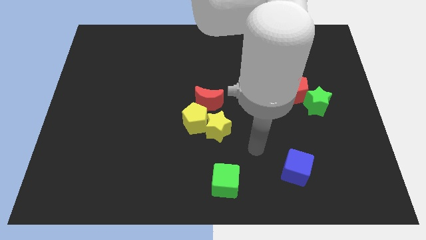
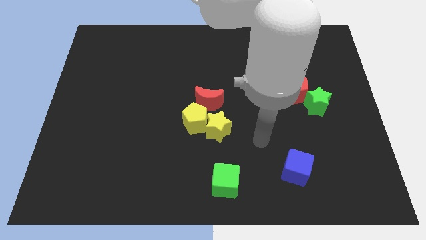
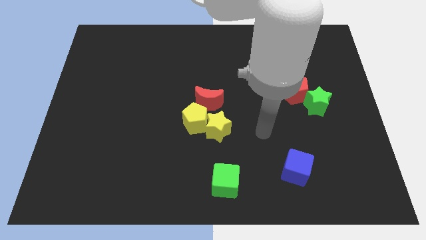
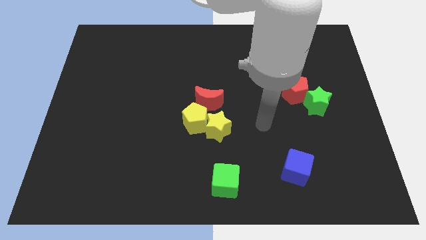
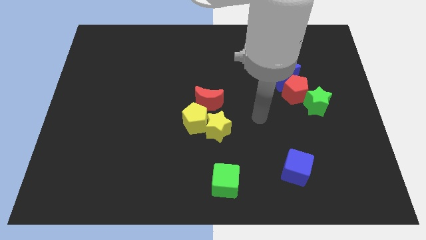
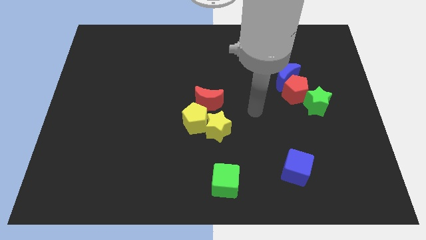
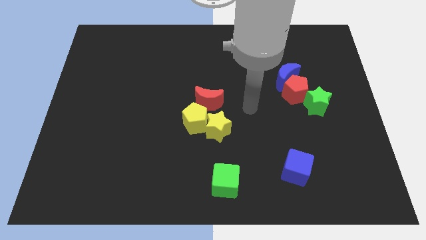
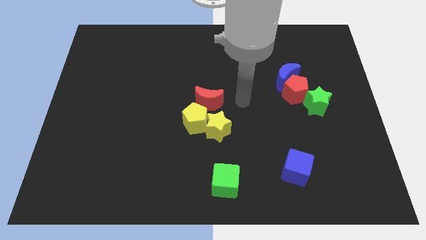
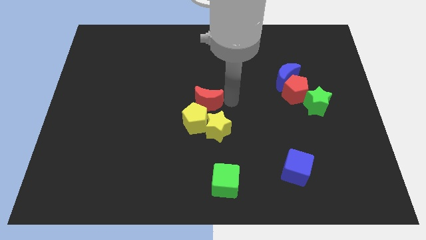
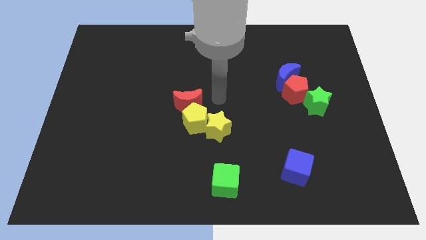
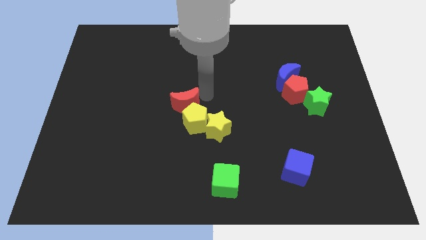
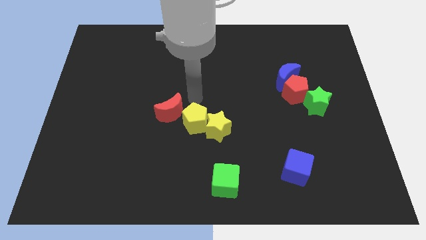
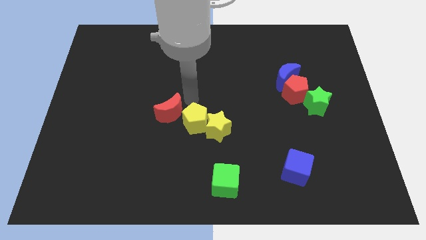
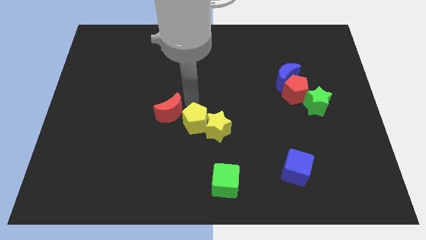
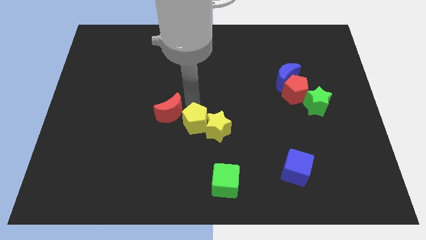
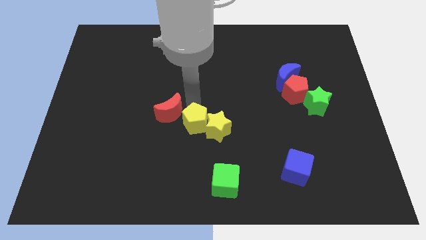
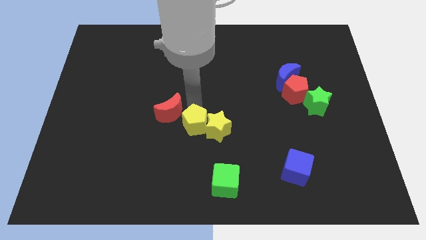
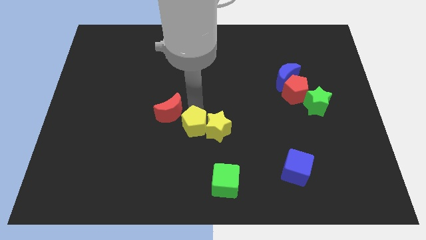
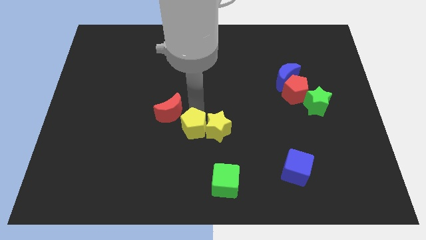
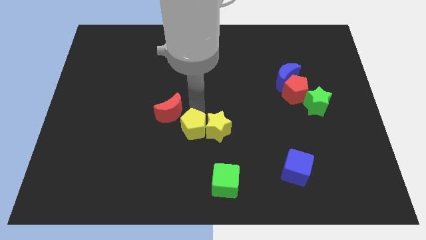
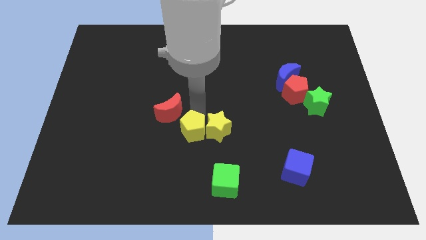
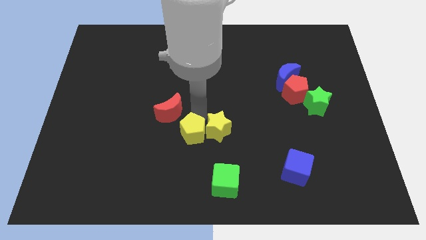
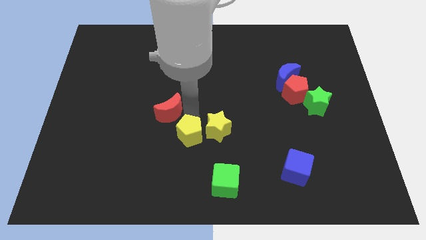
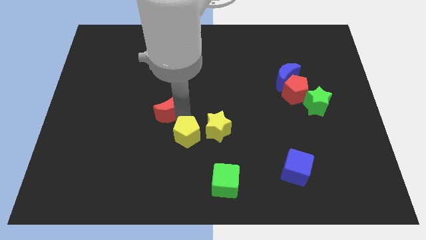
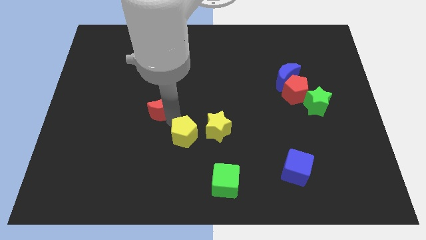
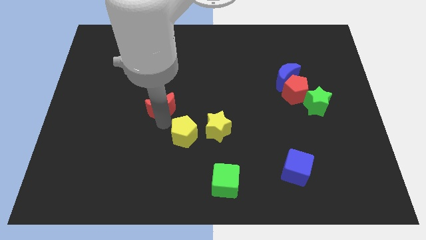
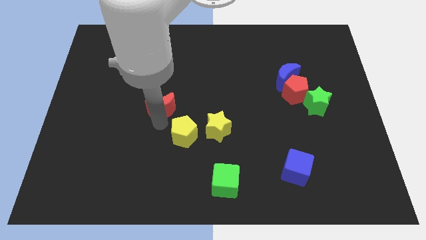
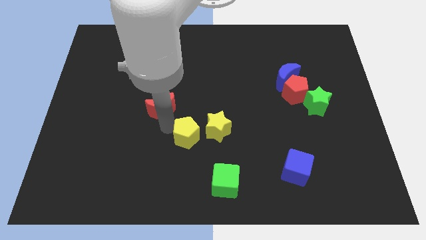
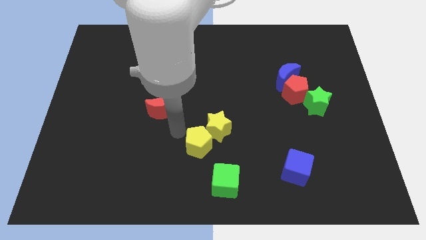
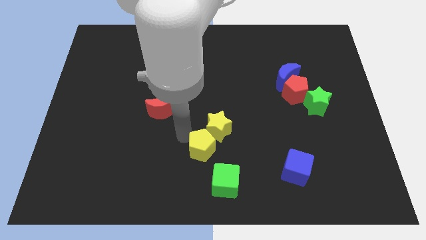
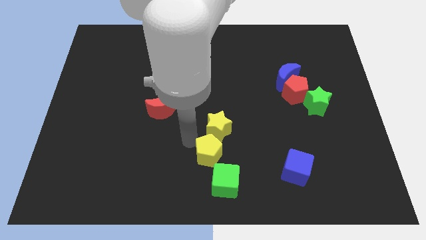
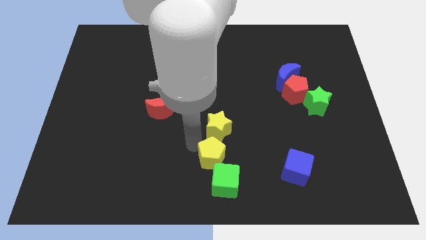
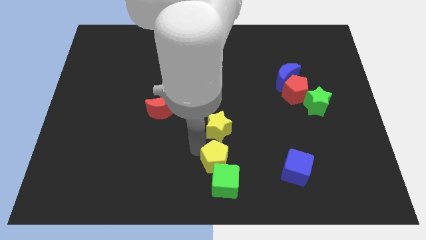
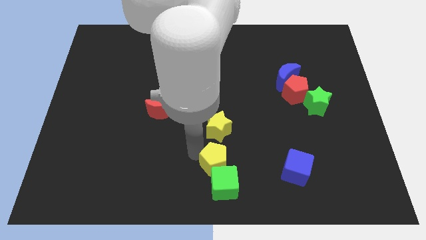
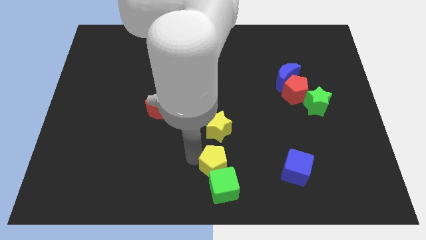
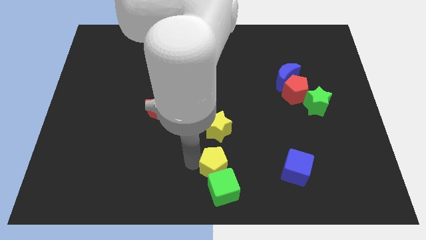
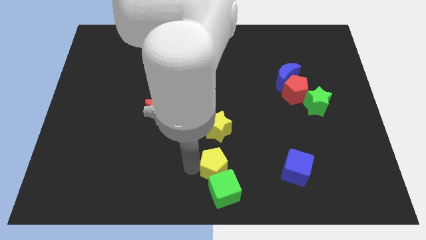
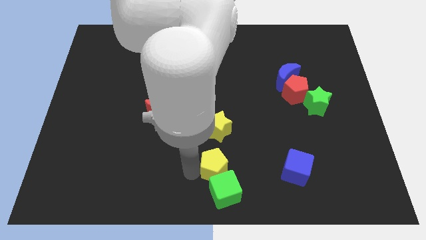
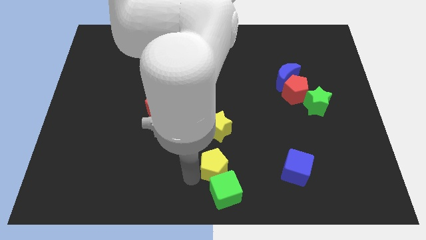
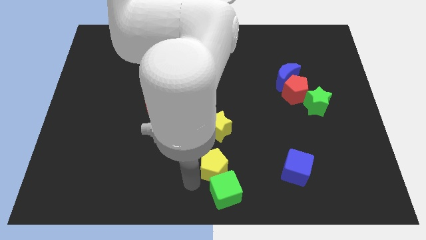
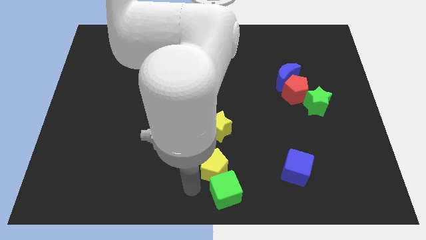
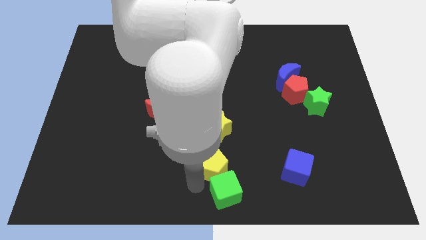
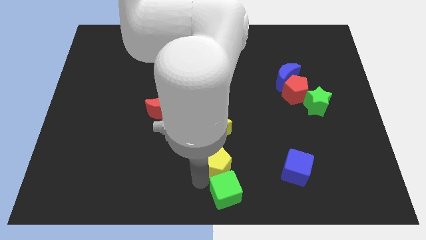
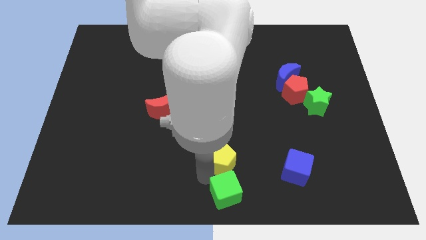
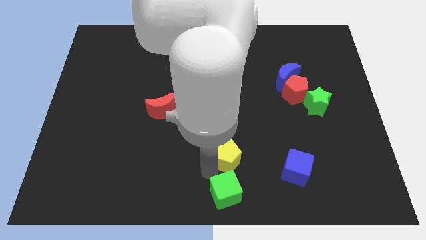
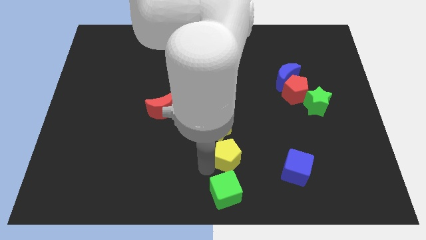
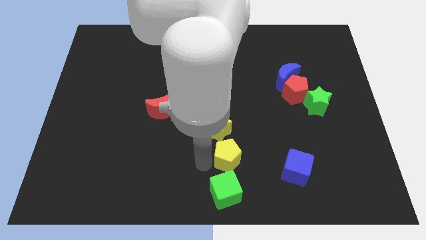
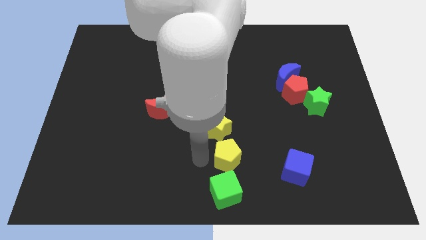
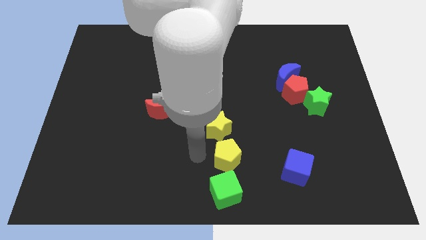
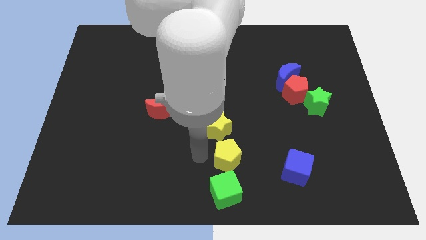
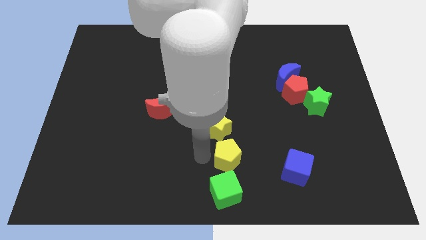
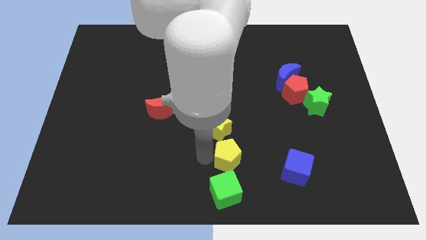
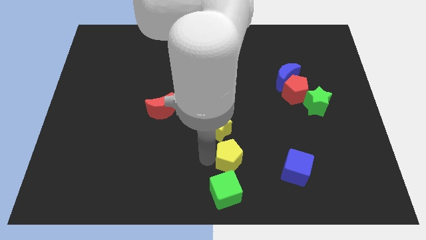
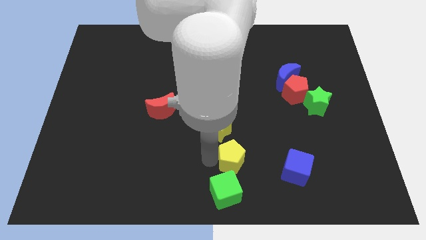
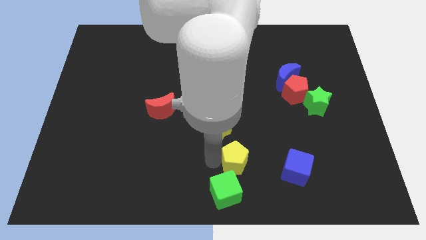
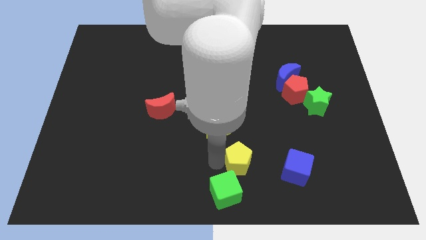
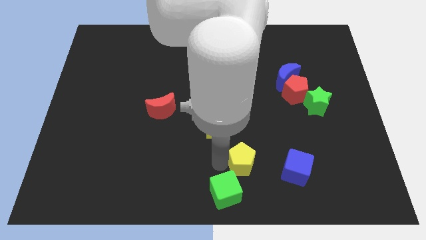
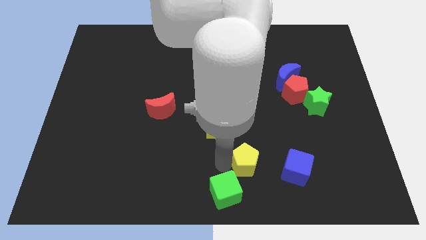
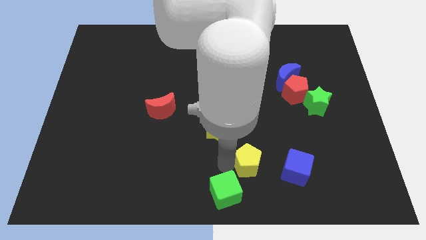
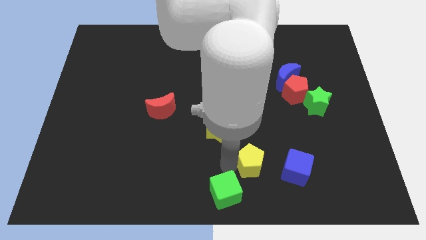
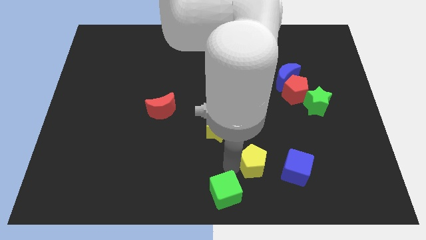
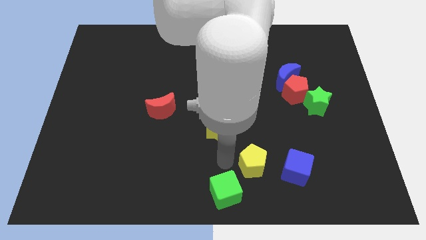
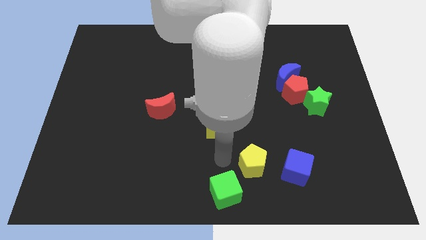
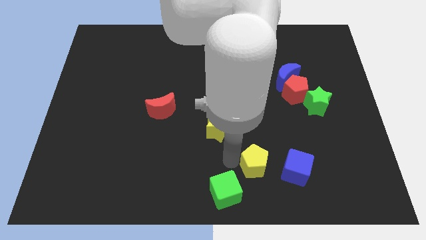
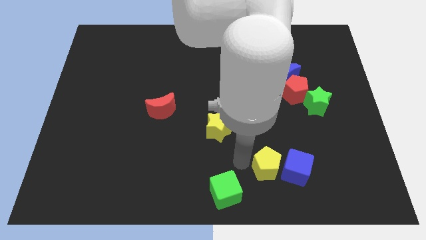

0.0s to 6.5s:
put the yellow pentagon close to the blue cube
